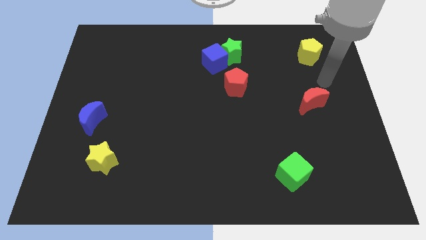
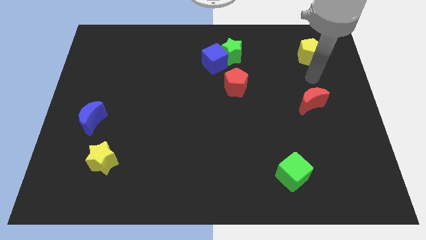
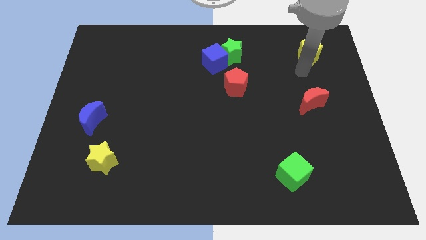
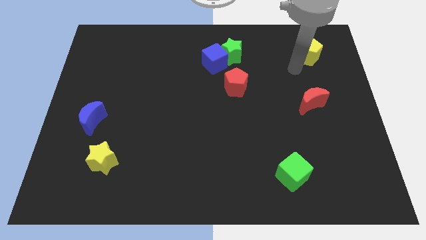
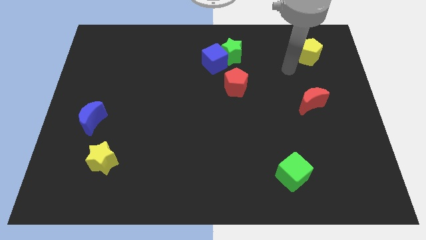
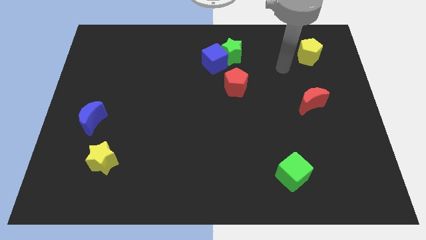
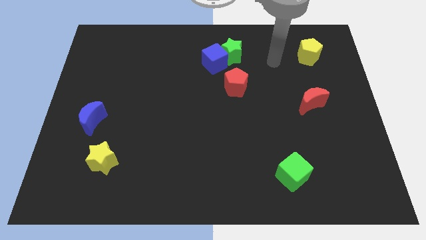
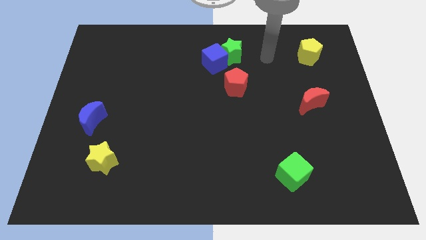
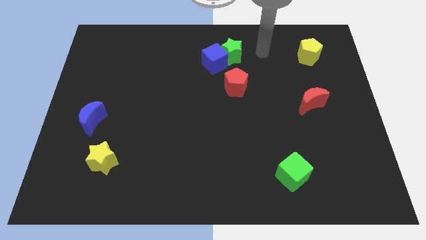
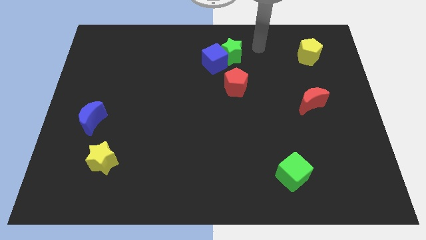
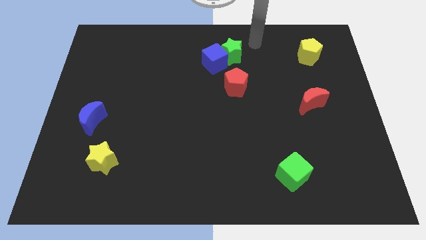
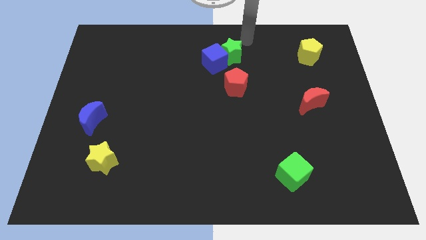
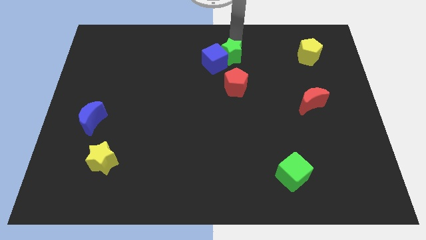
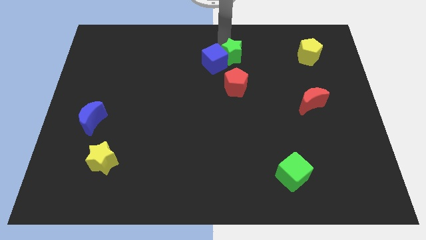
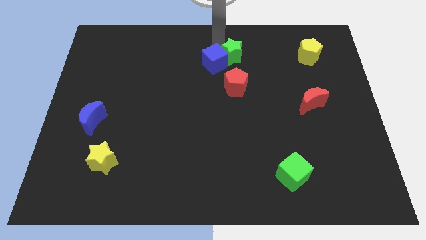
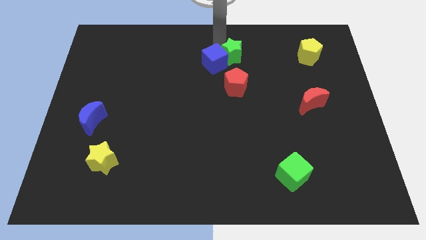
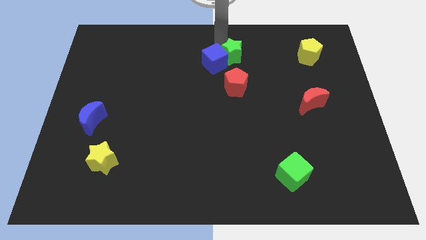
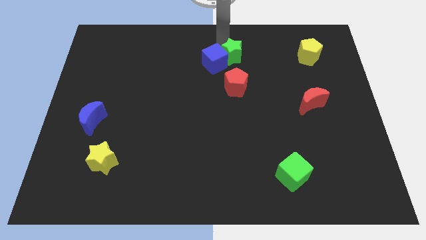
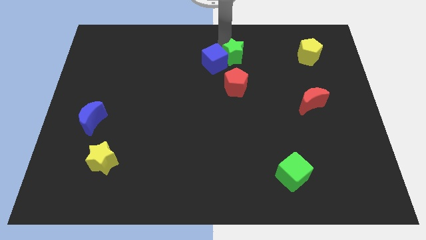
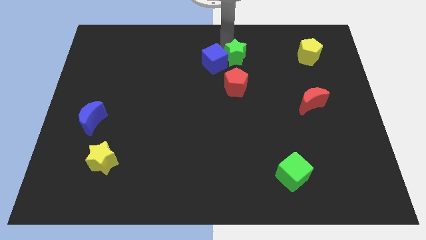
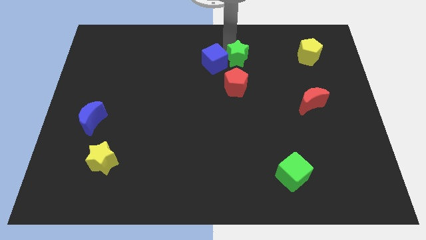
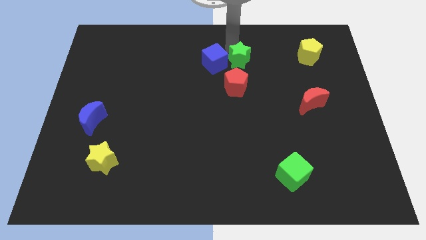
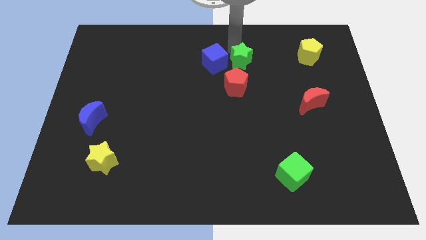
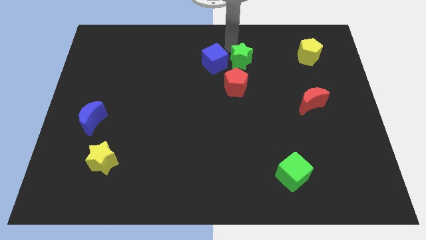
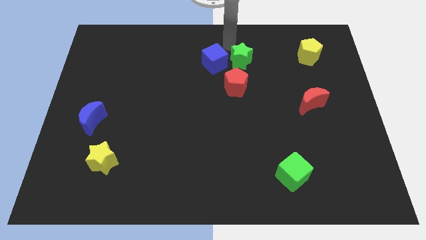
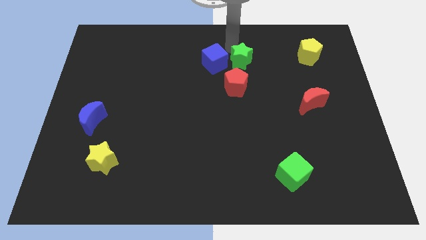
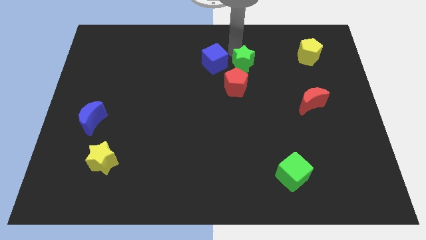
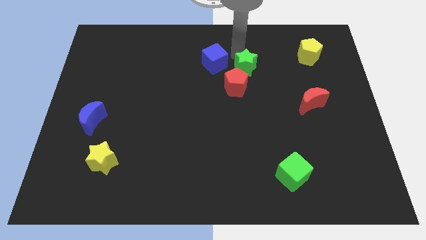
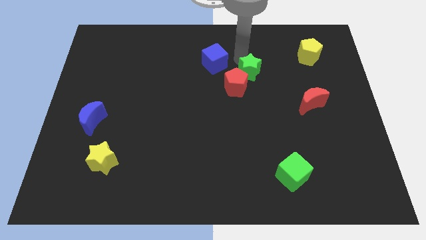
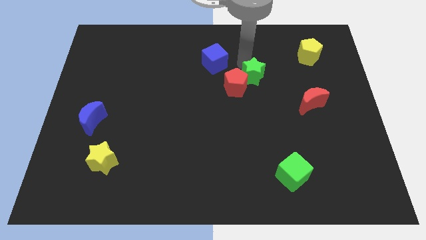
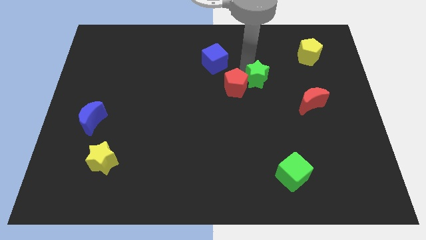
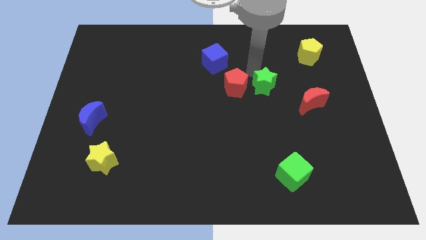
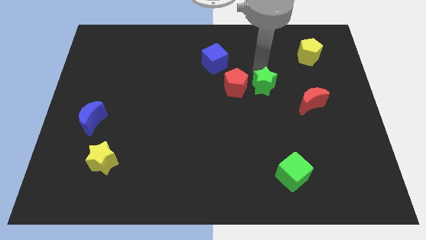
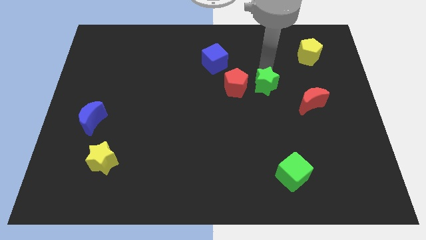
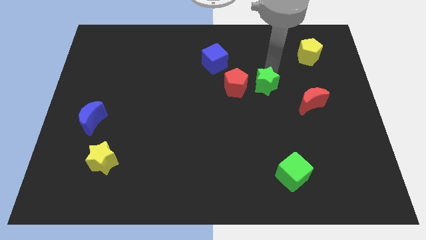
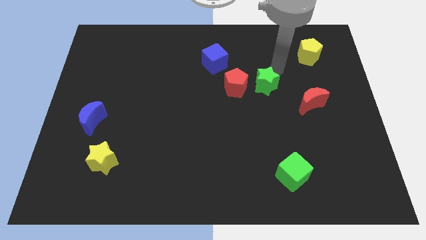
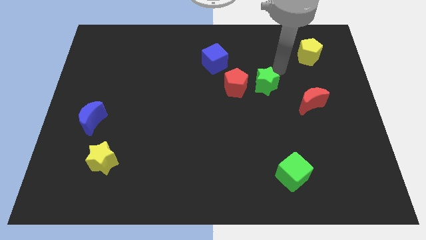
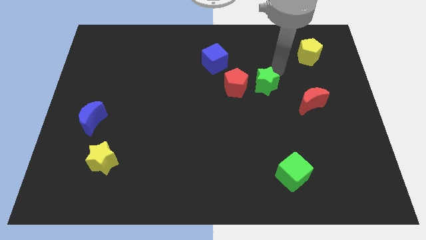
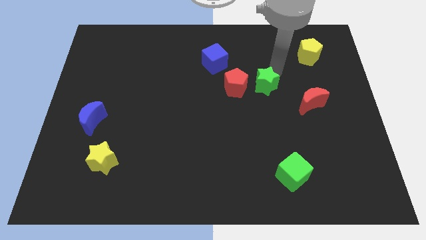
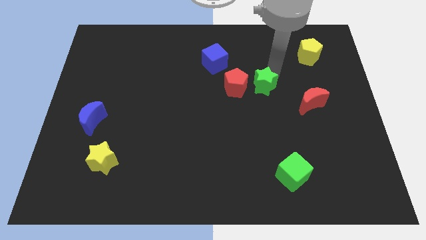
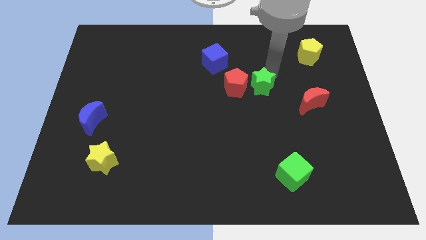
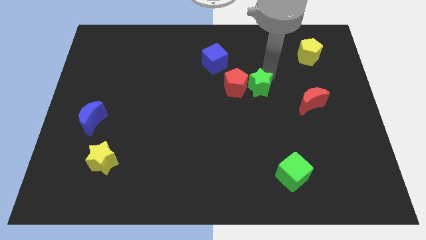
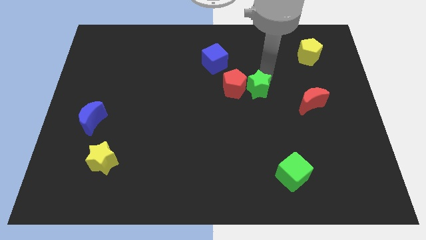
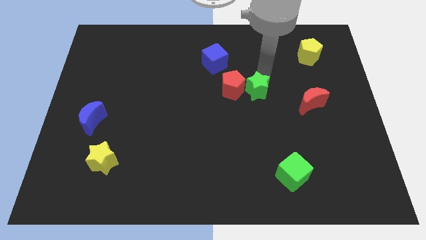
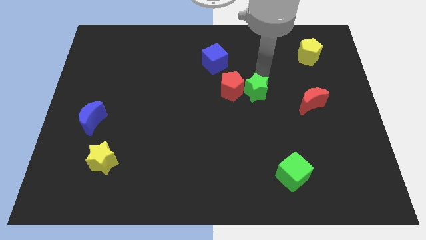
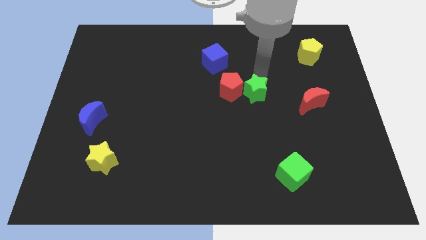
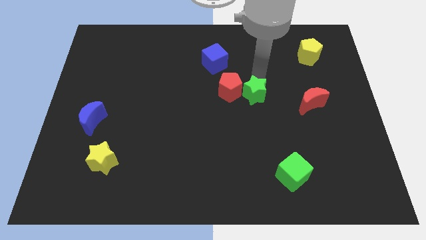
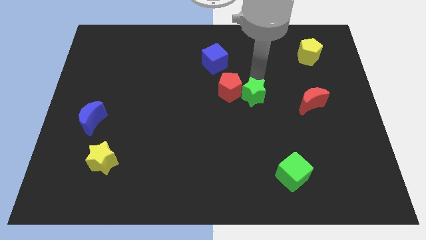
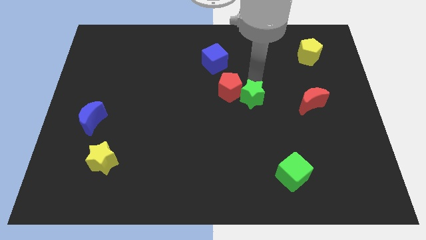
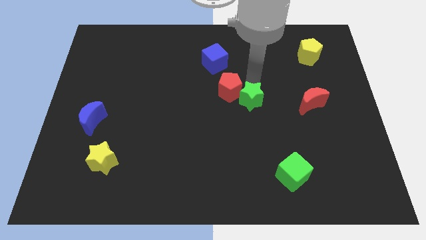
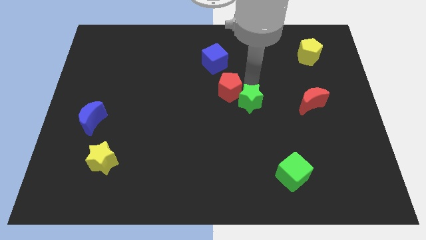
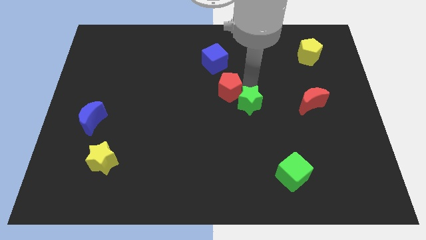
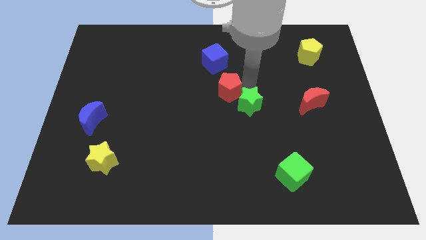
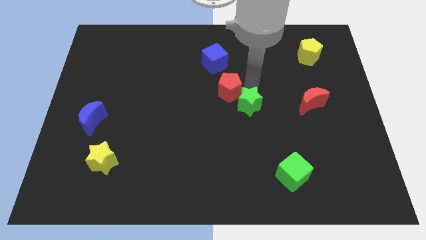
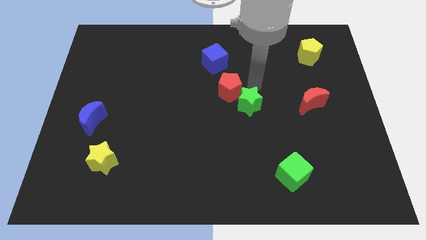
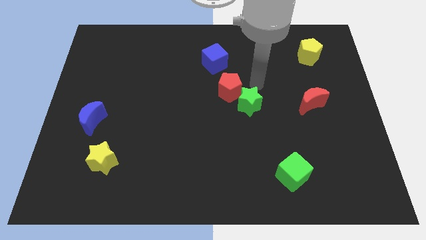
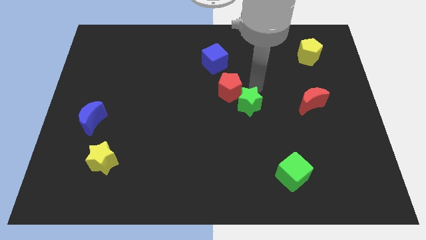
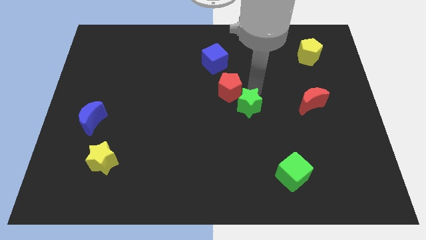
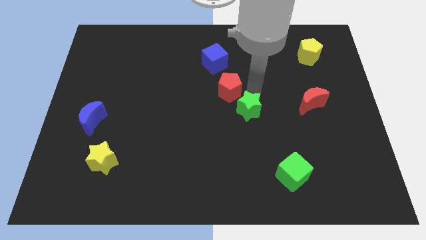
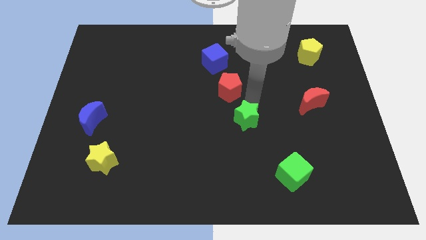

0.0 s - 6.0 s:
move the green star downwards

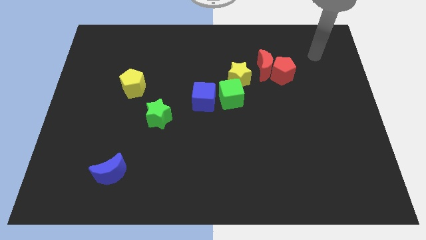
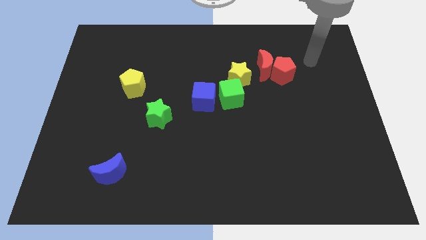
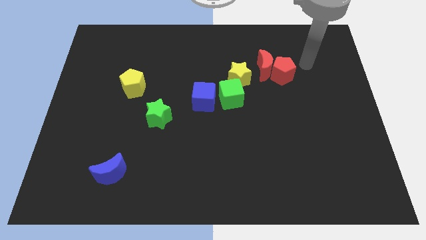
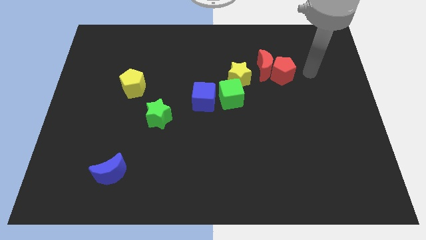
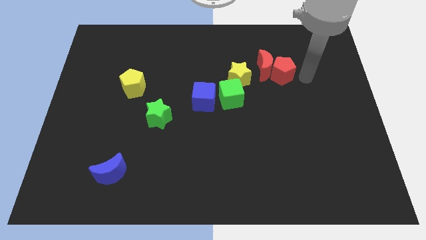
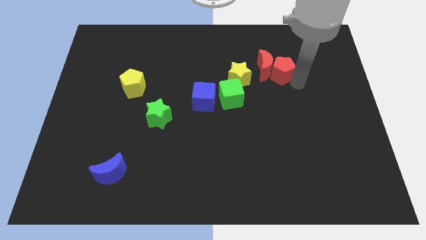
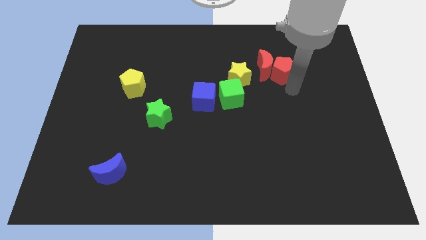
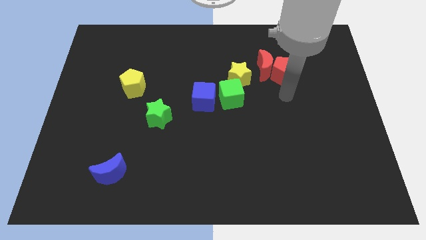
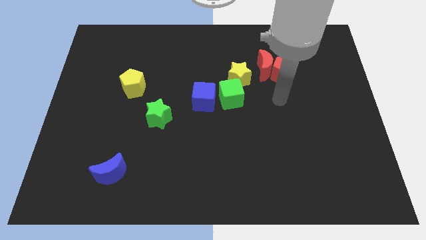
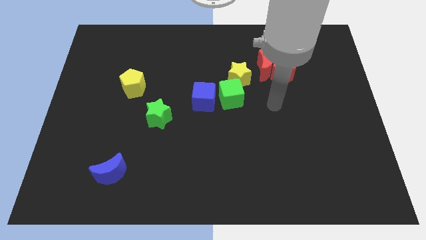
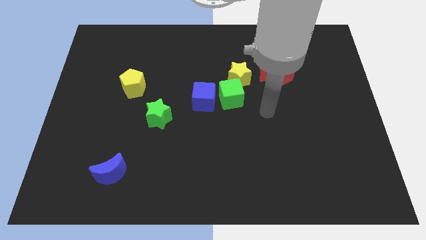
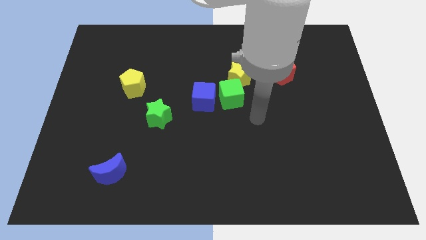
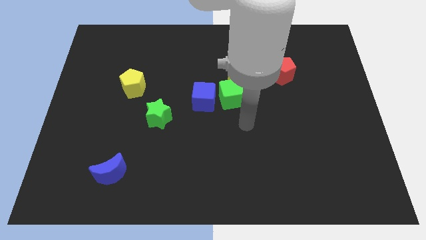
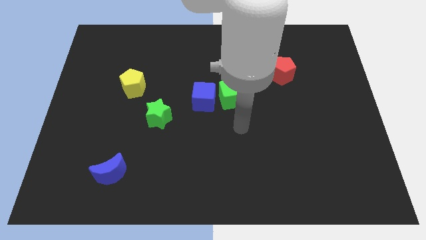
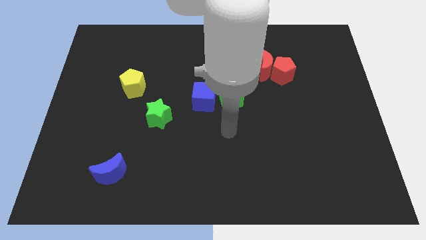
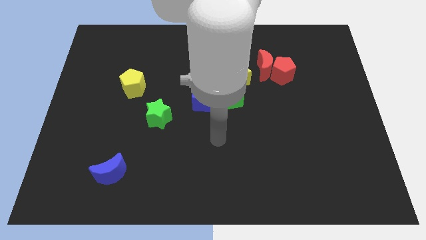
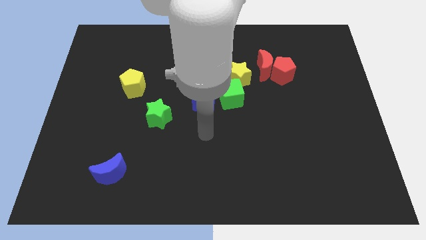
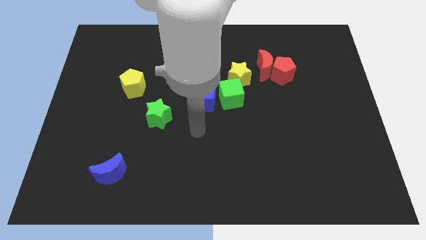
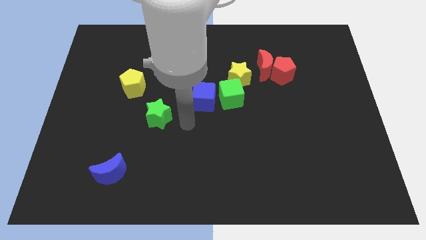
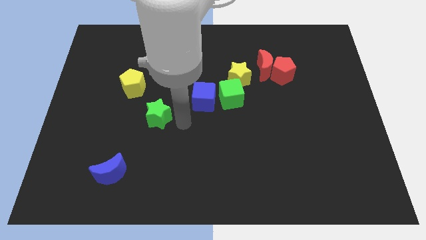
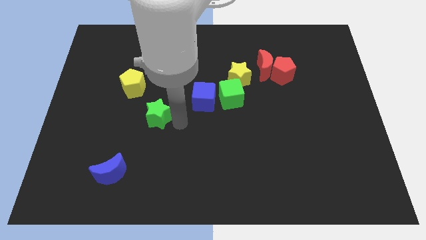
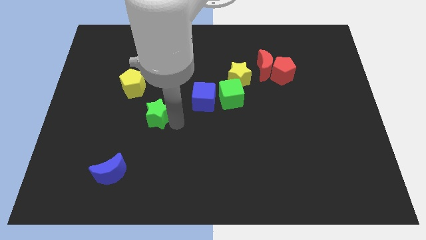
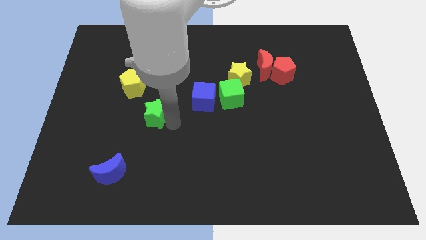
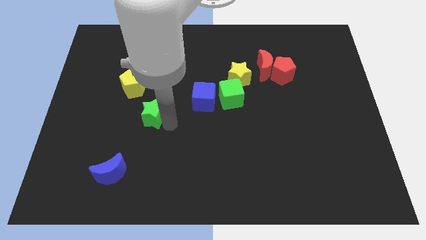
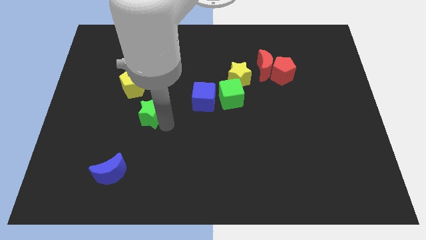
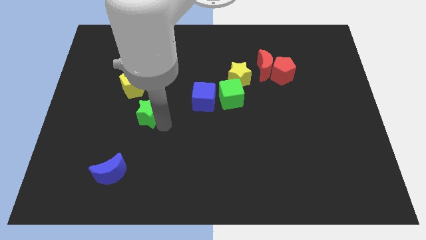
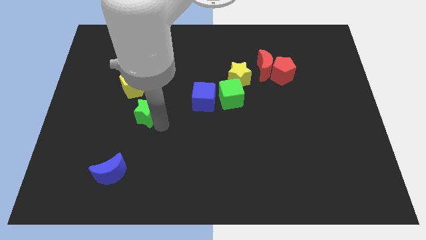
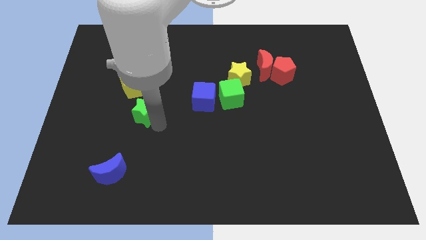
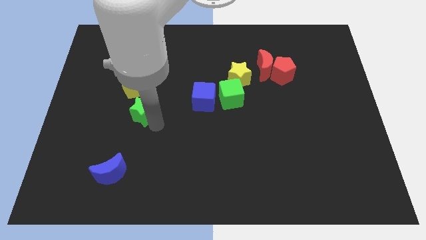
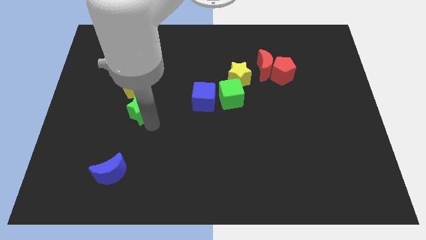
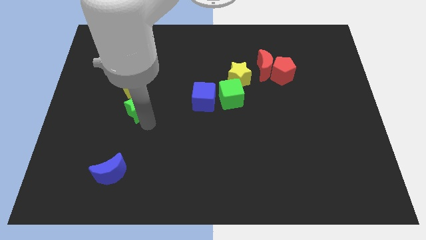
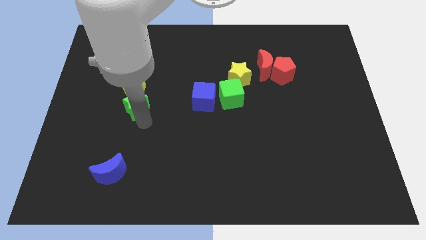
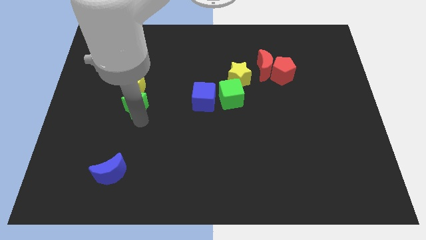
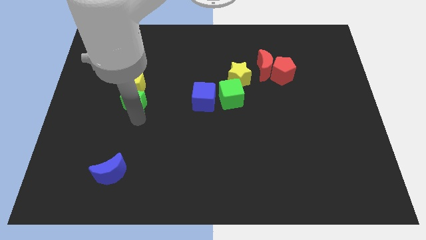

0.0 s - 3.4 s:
slide the green star slightly upwards and left diagonally
